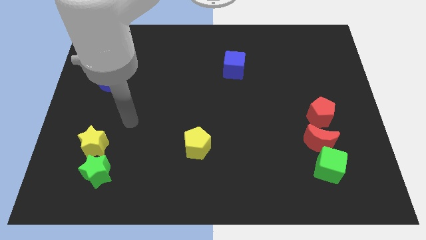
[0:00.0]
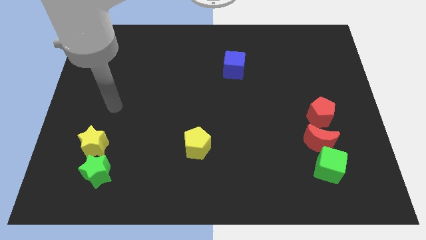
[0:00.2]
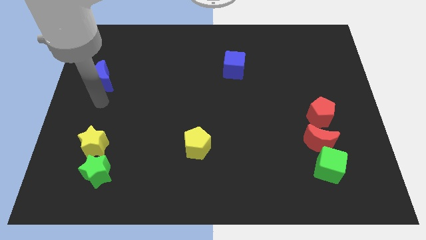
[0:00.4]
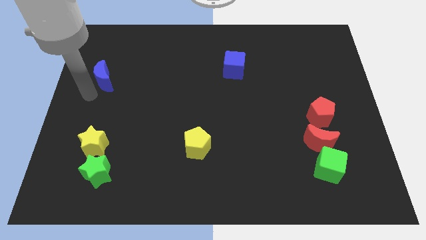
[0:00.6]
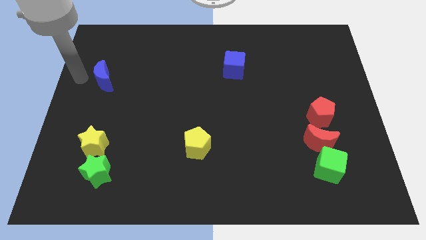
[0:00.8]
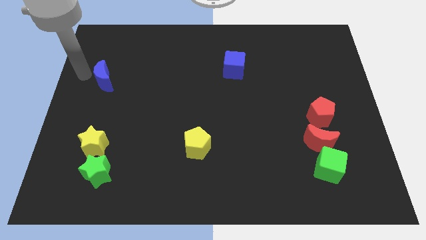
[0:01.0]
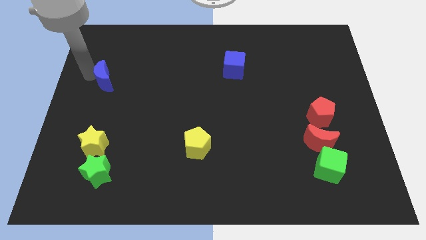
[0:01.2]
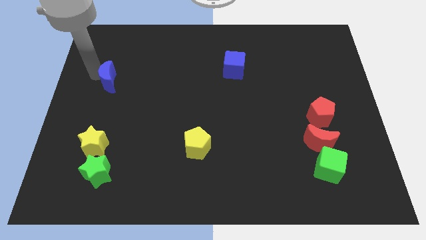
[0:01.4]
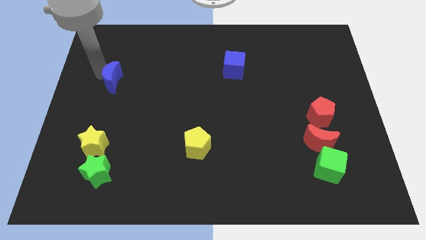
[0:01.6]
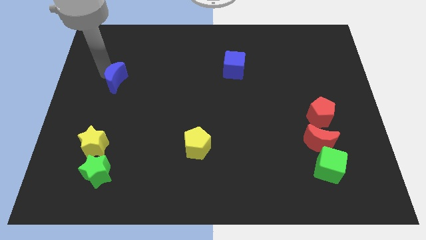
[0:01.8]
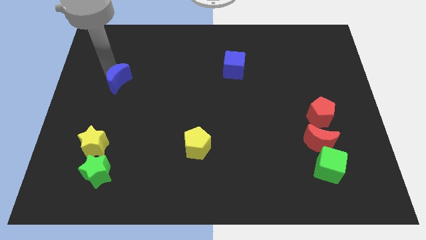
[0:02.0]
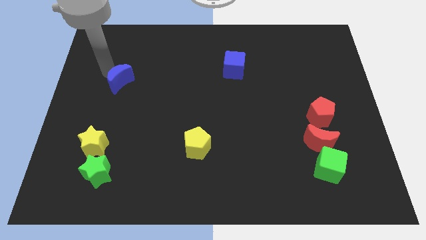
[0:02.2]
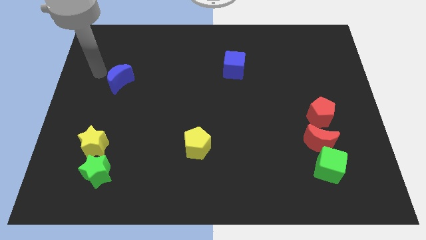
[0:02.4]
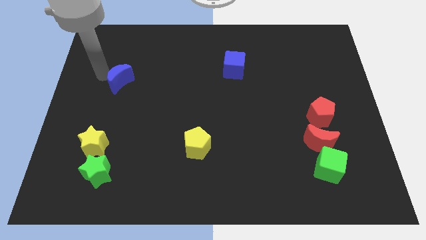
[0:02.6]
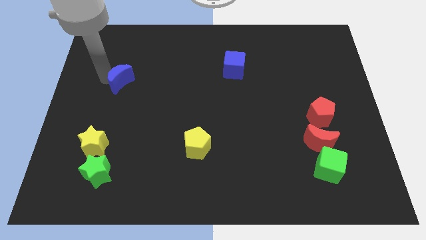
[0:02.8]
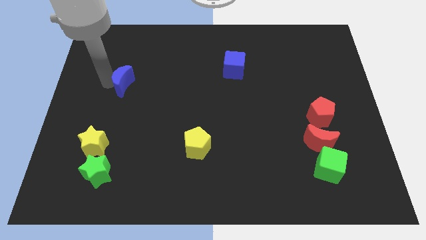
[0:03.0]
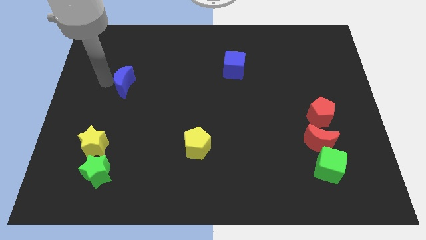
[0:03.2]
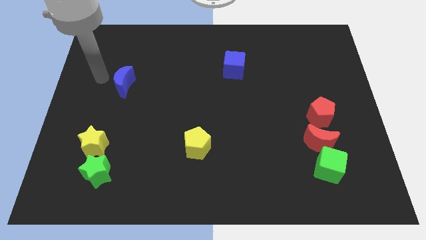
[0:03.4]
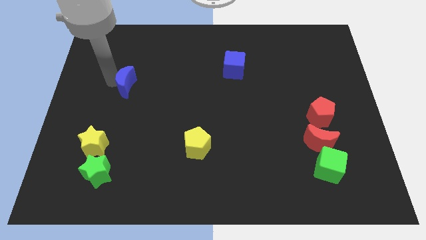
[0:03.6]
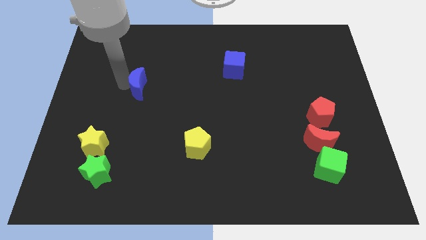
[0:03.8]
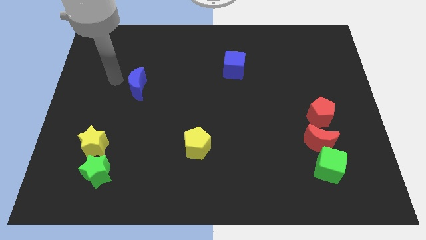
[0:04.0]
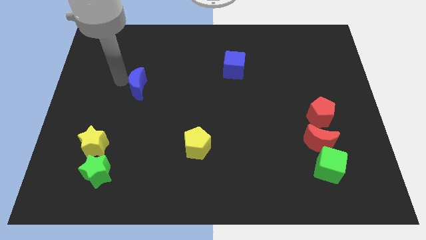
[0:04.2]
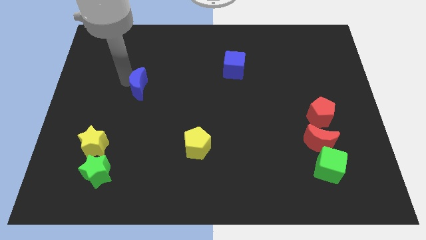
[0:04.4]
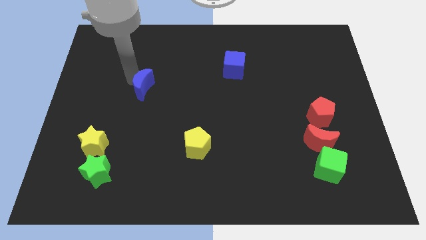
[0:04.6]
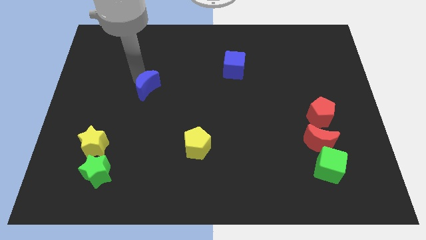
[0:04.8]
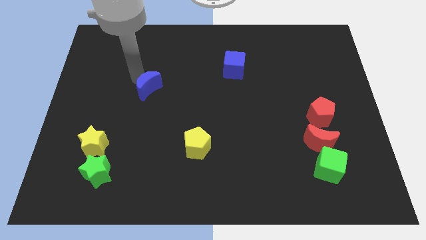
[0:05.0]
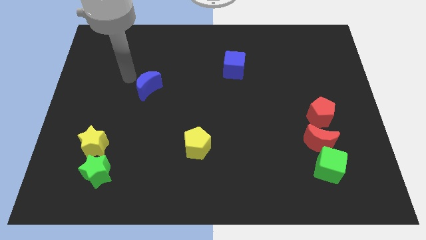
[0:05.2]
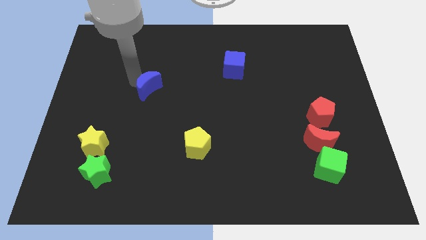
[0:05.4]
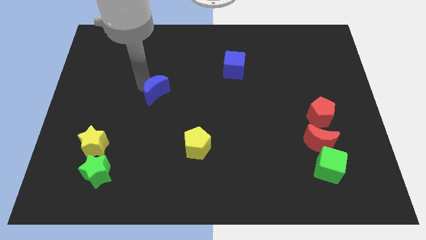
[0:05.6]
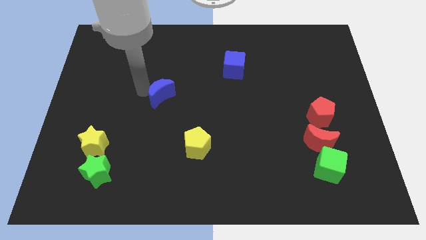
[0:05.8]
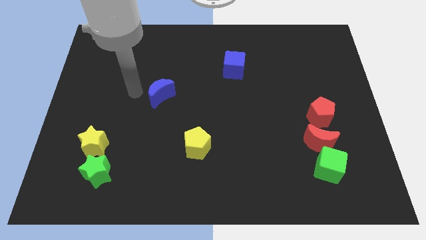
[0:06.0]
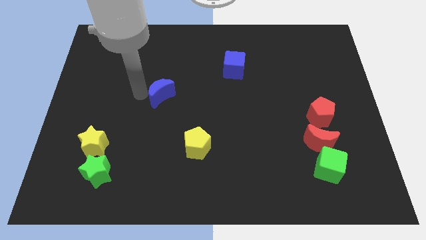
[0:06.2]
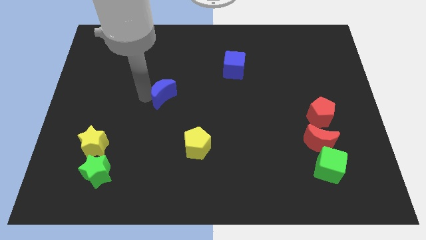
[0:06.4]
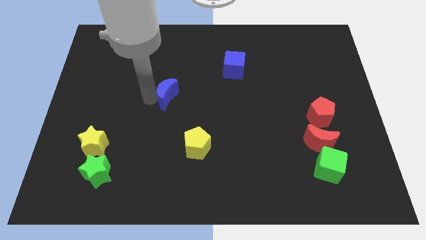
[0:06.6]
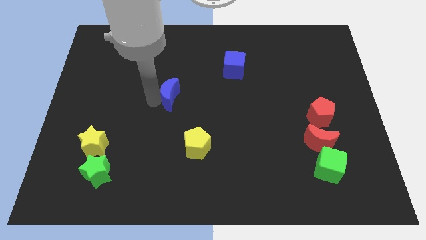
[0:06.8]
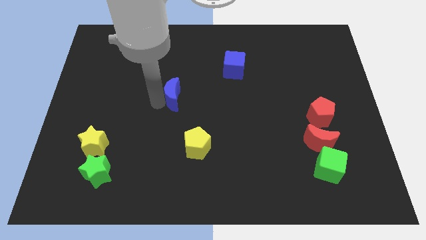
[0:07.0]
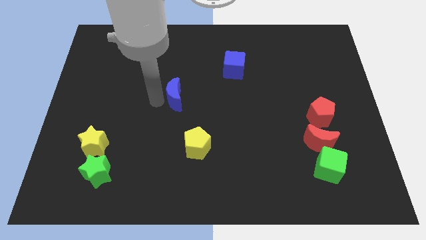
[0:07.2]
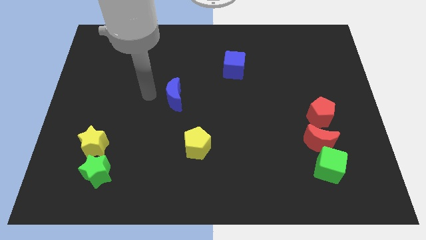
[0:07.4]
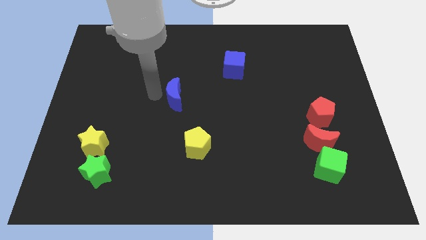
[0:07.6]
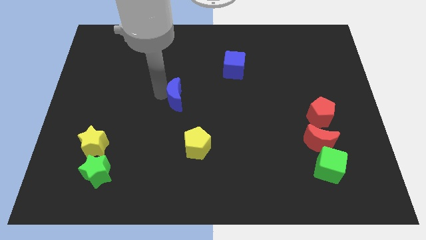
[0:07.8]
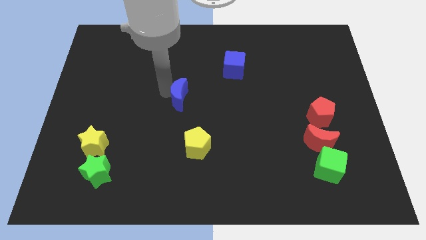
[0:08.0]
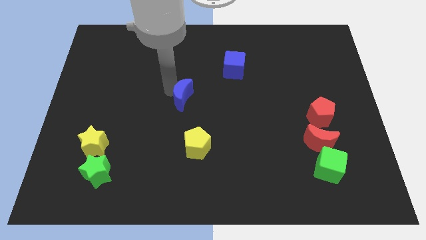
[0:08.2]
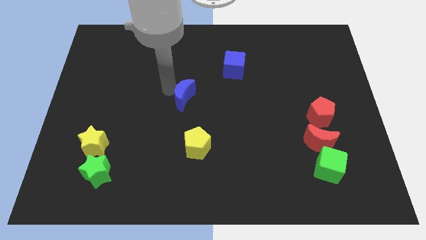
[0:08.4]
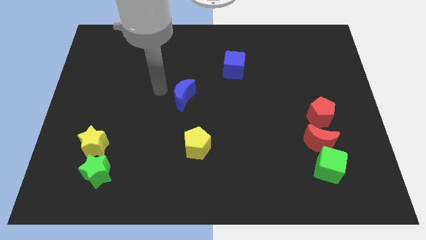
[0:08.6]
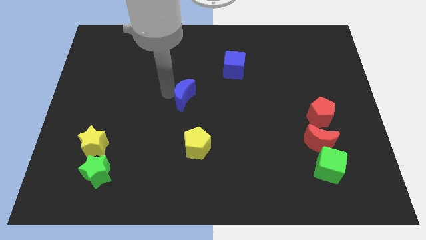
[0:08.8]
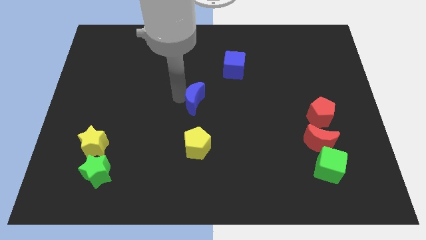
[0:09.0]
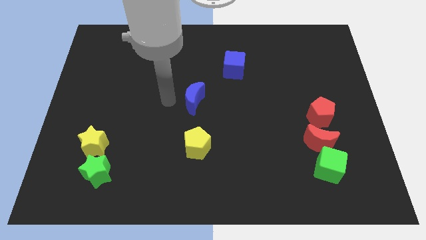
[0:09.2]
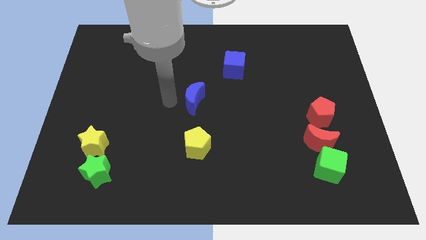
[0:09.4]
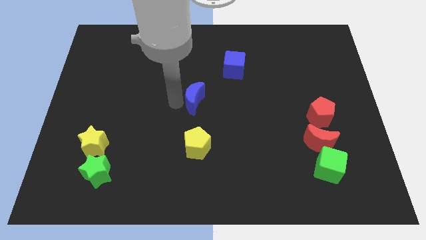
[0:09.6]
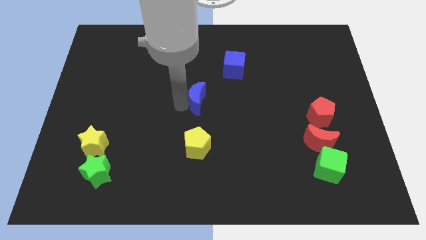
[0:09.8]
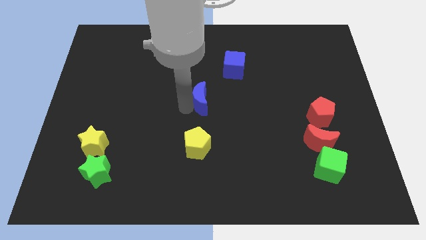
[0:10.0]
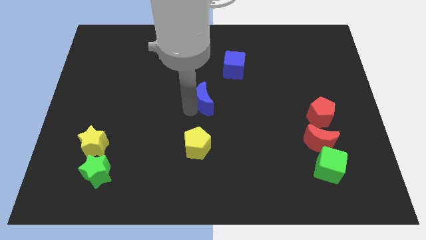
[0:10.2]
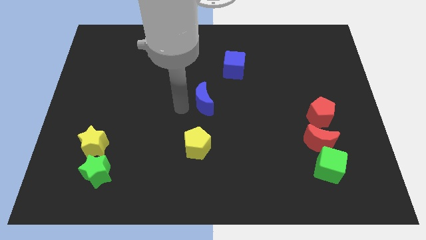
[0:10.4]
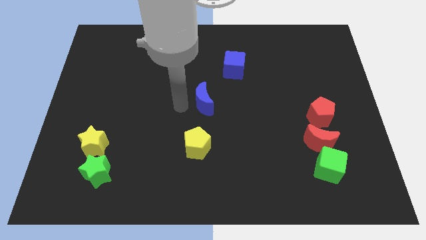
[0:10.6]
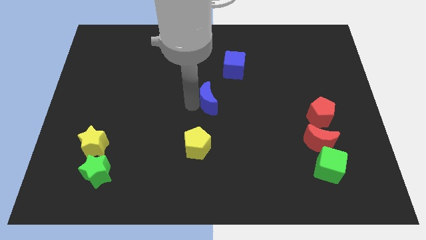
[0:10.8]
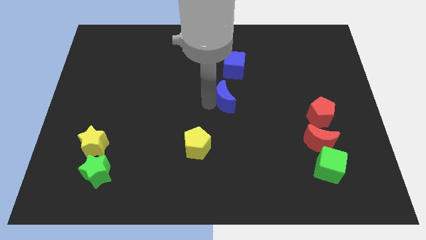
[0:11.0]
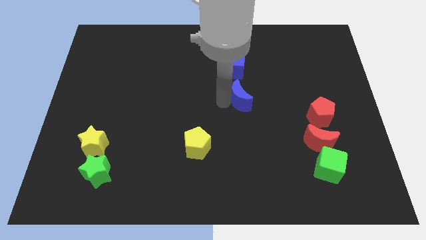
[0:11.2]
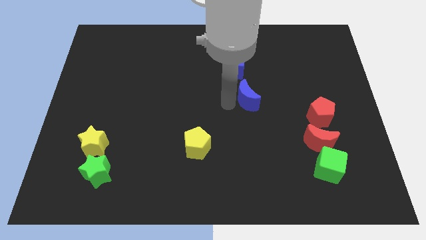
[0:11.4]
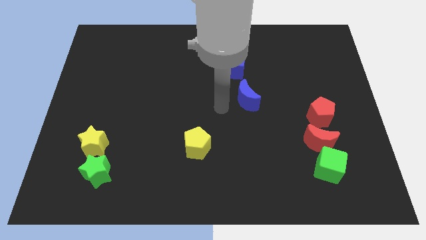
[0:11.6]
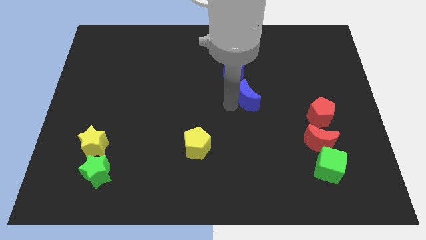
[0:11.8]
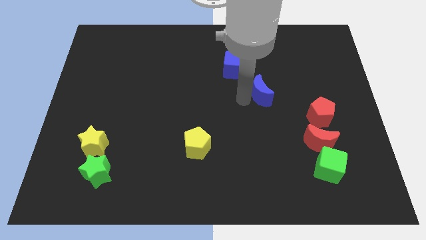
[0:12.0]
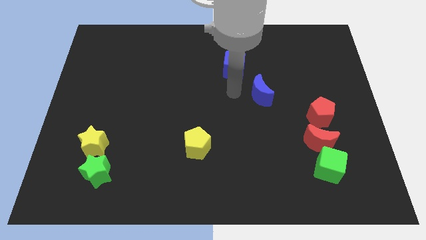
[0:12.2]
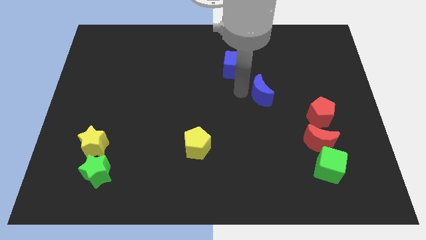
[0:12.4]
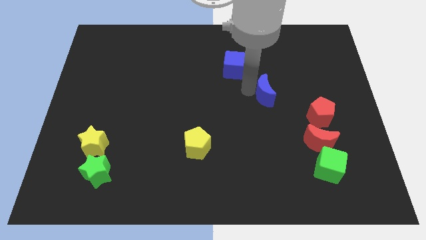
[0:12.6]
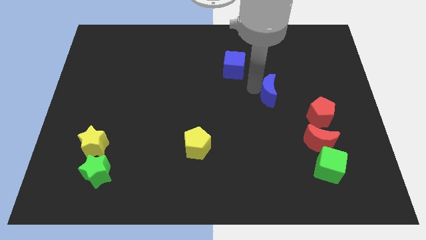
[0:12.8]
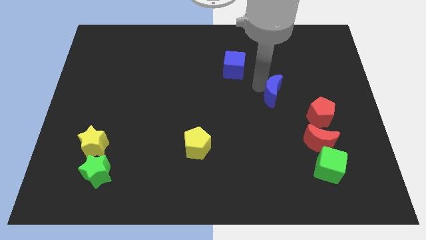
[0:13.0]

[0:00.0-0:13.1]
put the blue moon to the top left of the red pentagon

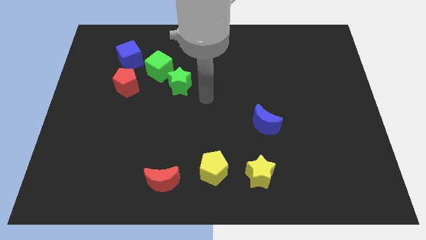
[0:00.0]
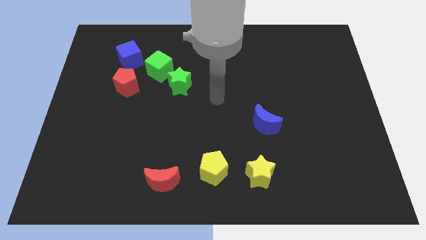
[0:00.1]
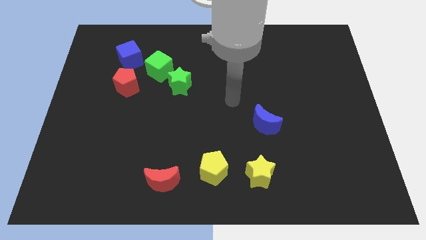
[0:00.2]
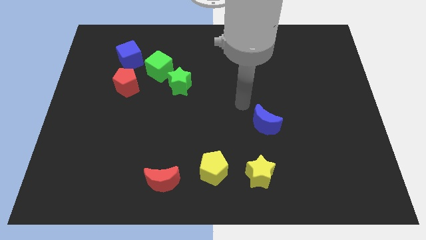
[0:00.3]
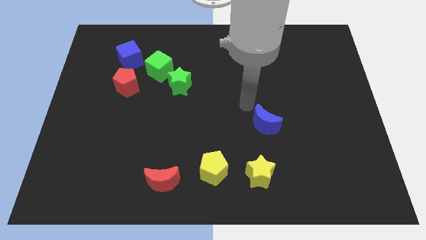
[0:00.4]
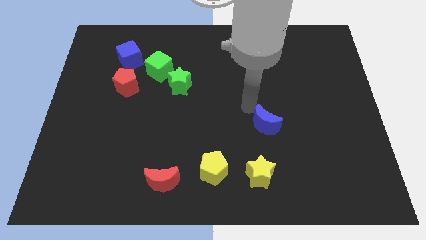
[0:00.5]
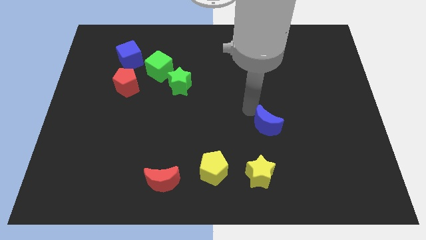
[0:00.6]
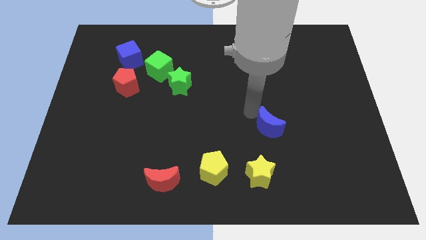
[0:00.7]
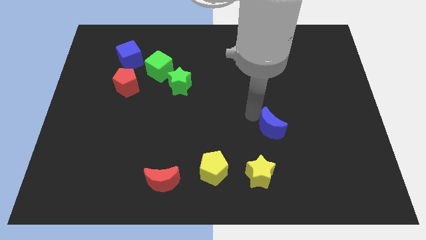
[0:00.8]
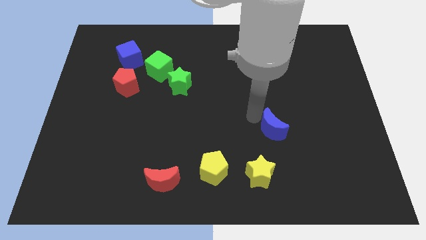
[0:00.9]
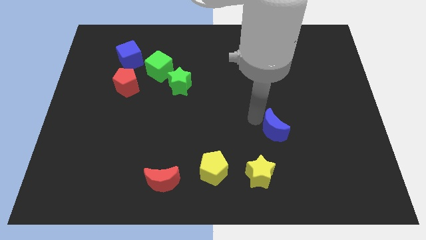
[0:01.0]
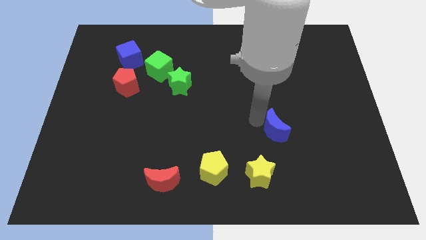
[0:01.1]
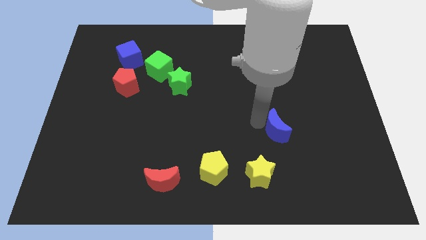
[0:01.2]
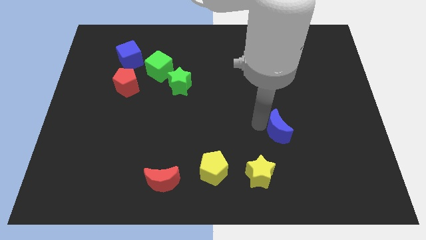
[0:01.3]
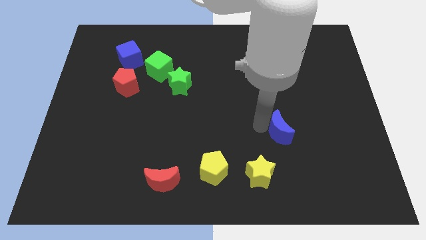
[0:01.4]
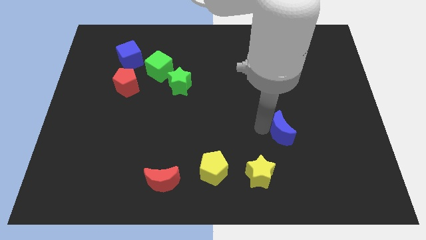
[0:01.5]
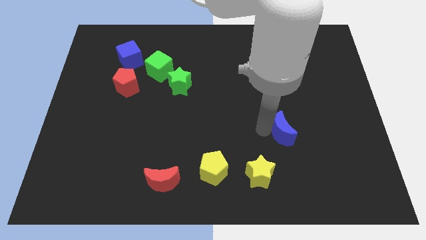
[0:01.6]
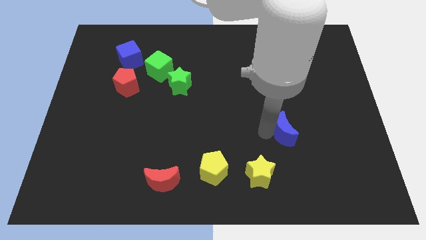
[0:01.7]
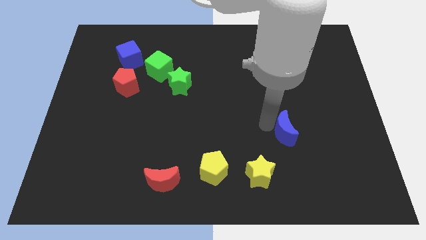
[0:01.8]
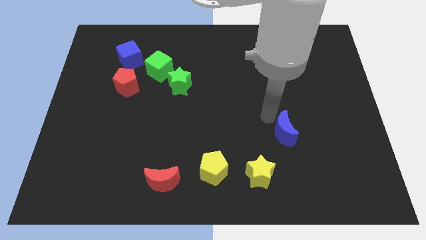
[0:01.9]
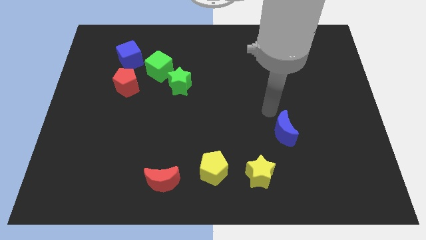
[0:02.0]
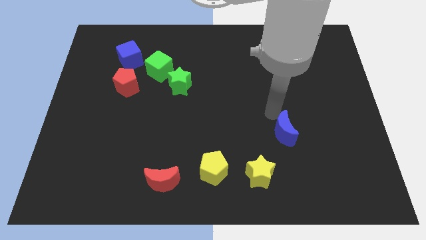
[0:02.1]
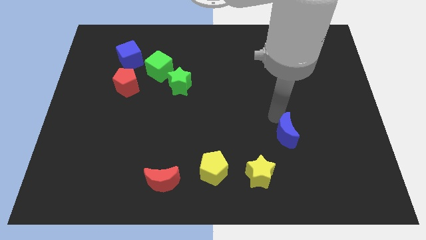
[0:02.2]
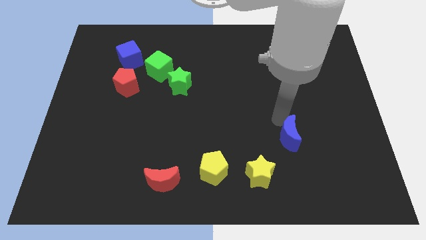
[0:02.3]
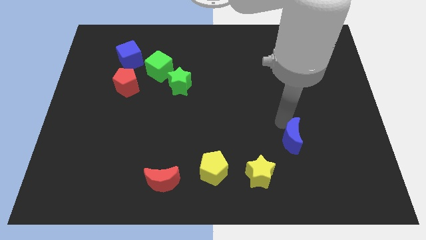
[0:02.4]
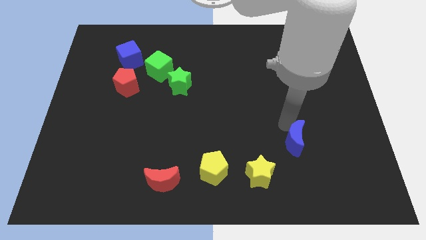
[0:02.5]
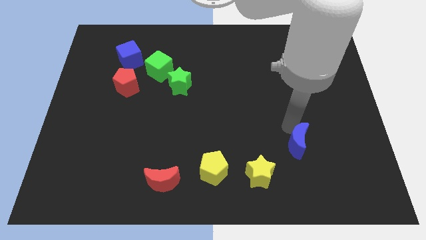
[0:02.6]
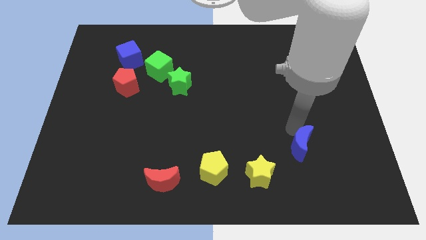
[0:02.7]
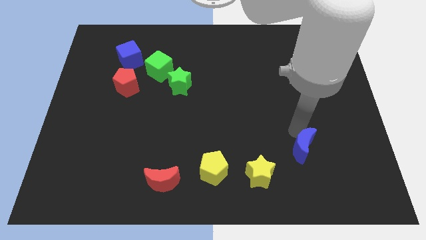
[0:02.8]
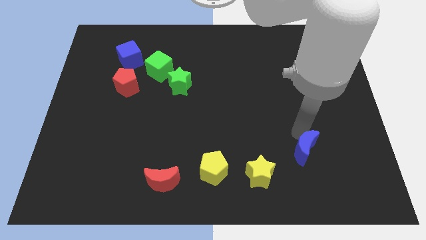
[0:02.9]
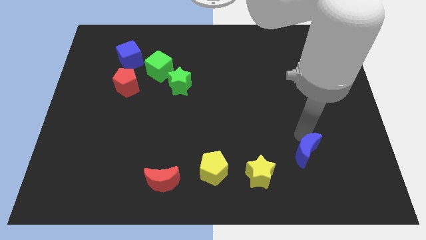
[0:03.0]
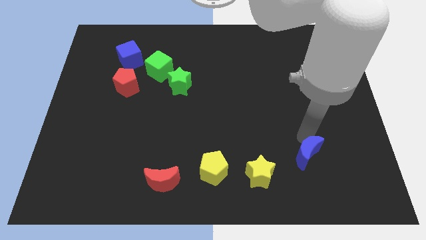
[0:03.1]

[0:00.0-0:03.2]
put the blue moon right of the yellow star
